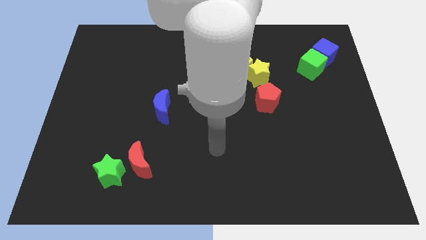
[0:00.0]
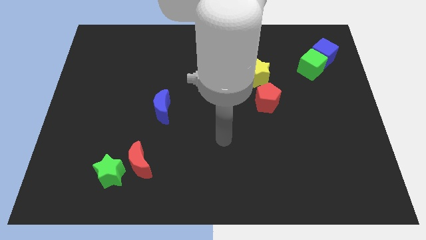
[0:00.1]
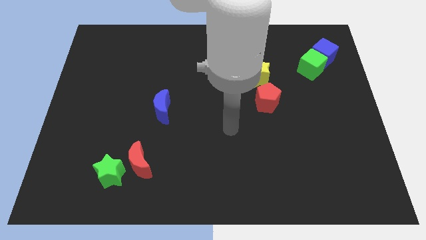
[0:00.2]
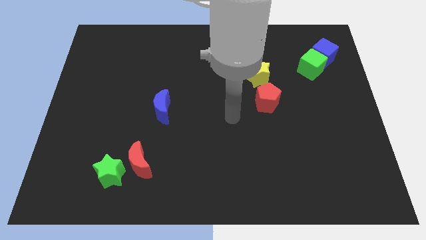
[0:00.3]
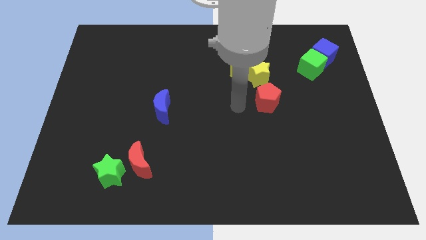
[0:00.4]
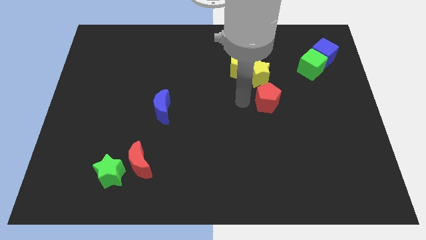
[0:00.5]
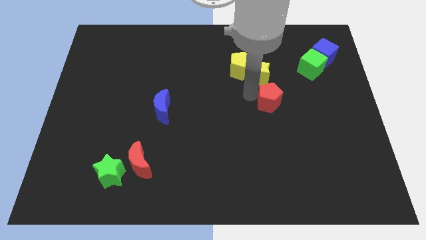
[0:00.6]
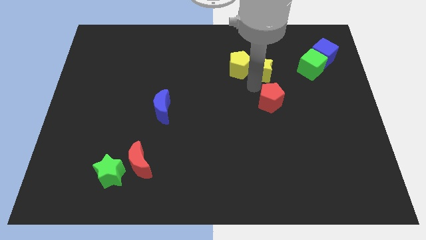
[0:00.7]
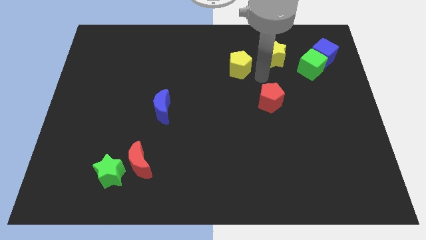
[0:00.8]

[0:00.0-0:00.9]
separate the yellow pentagon from the yellow star

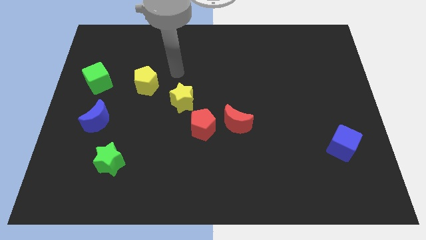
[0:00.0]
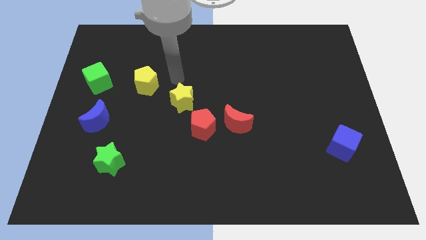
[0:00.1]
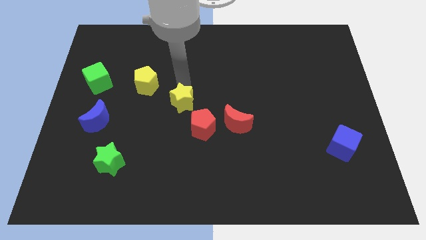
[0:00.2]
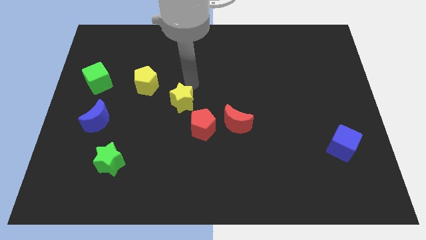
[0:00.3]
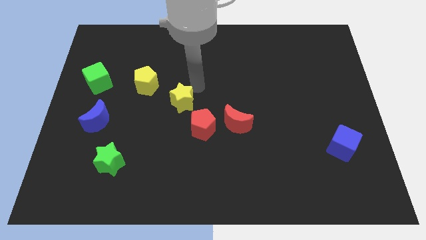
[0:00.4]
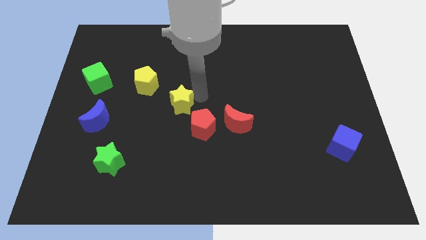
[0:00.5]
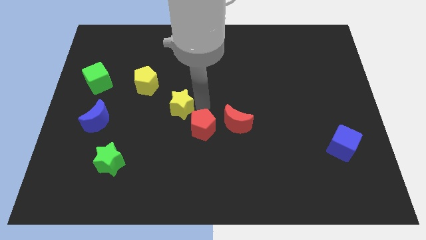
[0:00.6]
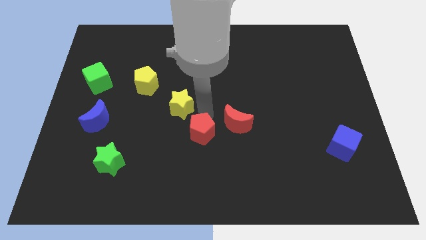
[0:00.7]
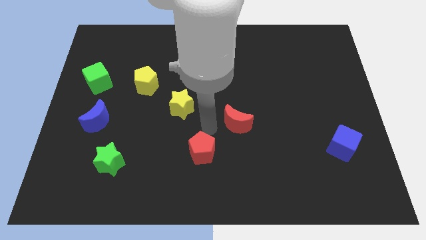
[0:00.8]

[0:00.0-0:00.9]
pull the red moon apart from the red pentagon

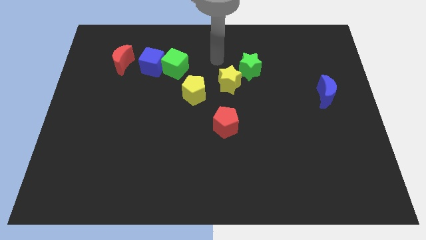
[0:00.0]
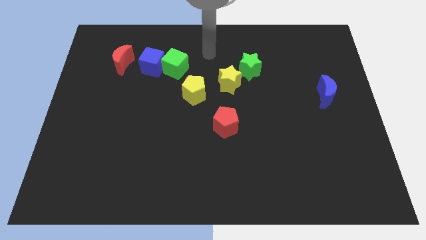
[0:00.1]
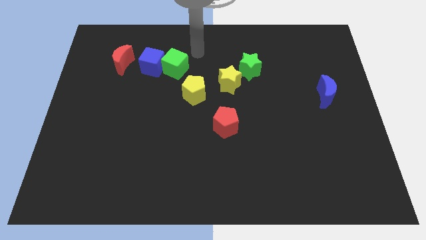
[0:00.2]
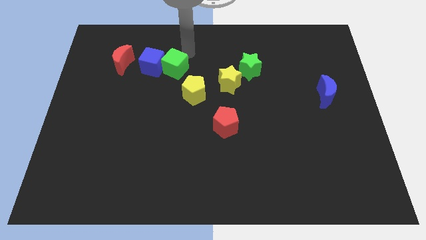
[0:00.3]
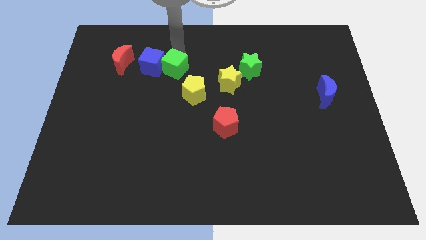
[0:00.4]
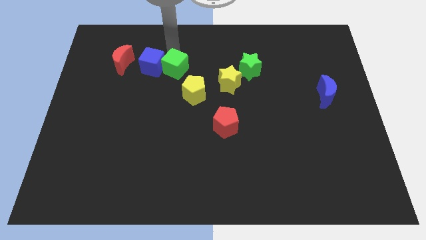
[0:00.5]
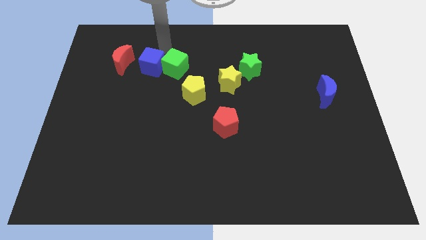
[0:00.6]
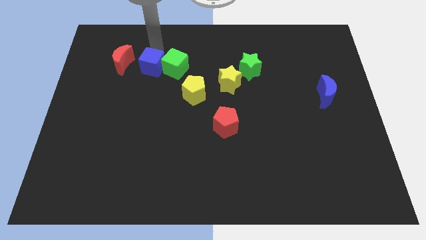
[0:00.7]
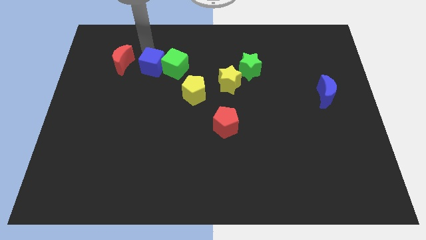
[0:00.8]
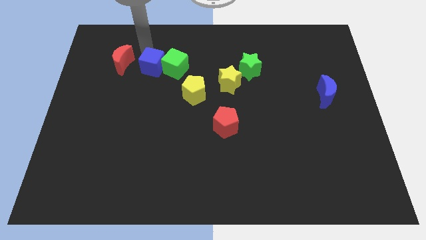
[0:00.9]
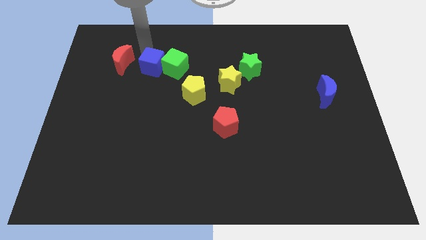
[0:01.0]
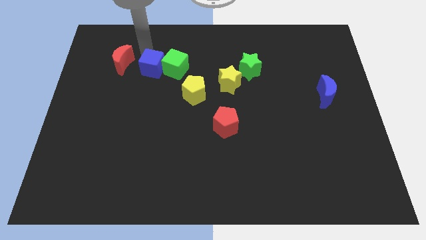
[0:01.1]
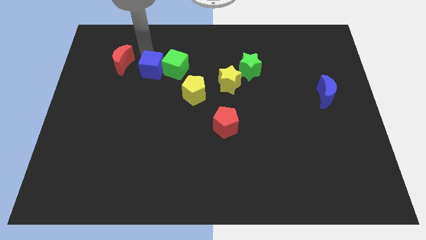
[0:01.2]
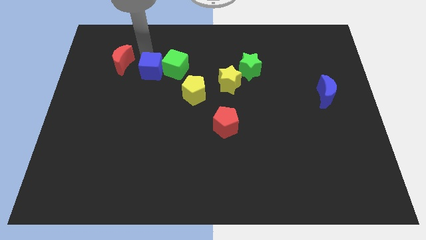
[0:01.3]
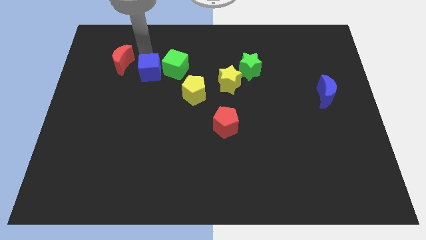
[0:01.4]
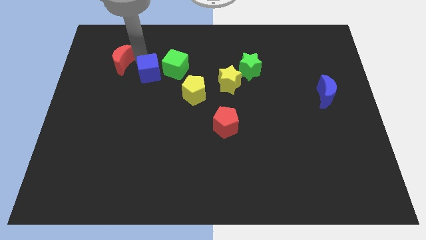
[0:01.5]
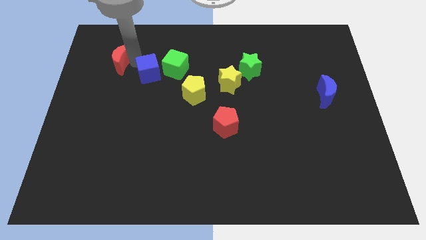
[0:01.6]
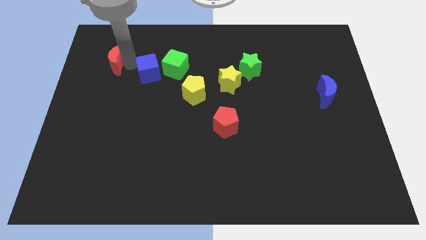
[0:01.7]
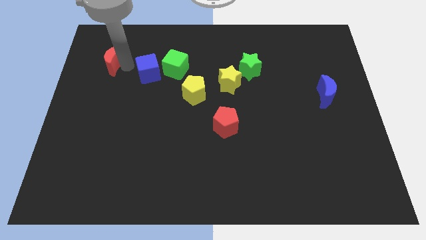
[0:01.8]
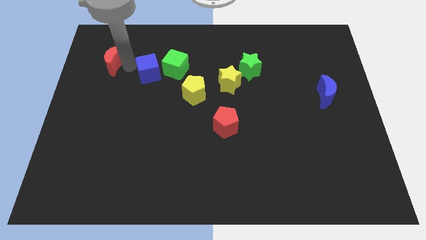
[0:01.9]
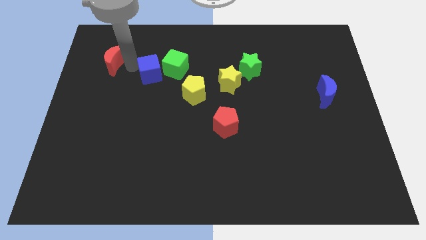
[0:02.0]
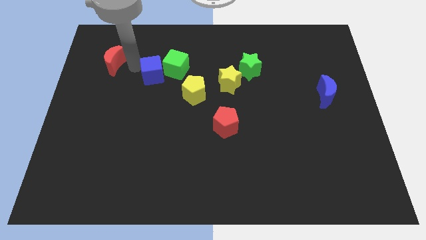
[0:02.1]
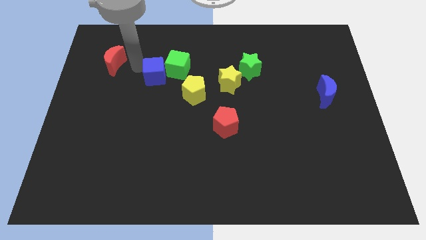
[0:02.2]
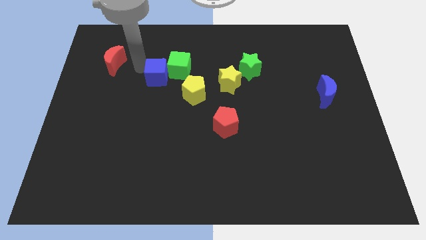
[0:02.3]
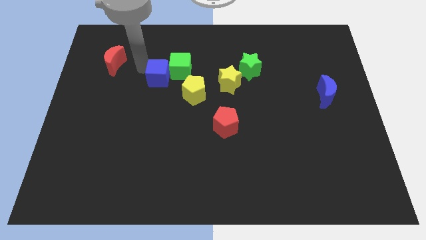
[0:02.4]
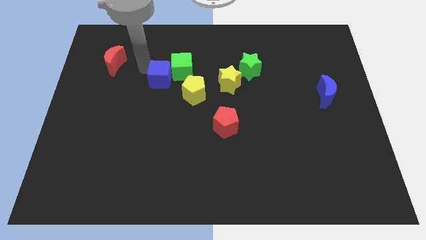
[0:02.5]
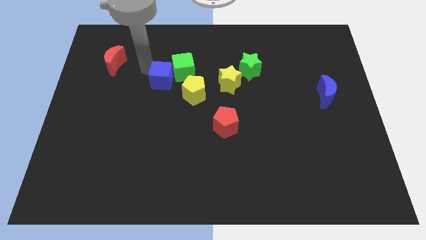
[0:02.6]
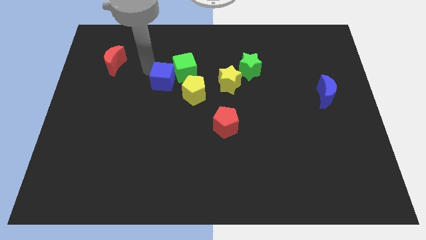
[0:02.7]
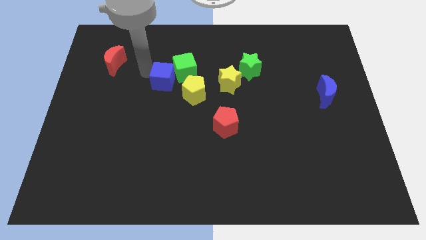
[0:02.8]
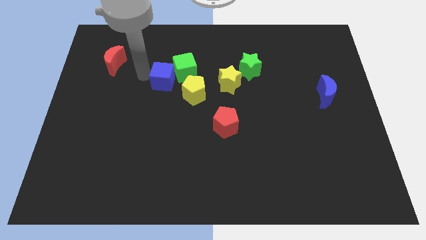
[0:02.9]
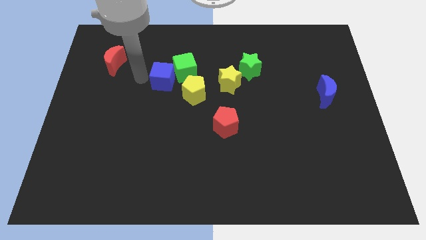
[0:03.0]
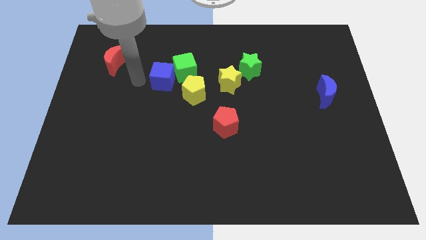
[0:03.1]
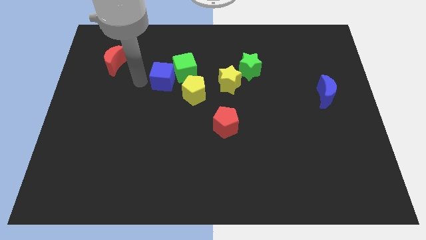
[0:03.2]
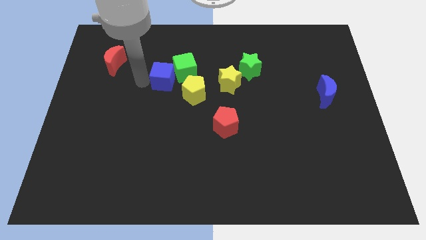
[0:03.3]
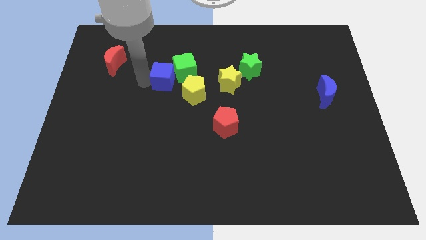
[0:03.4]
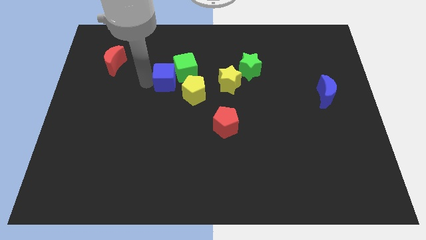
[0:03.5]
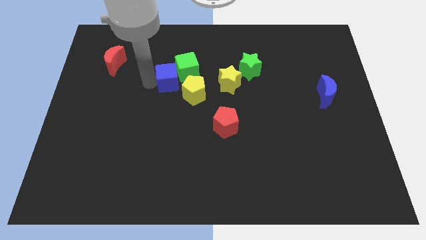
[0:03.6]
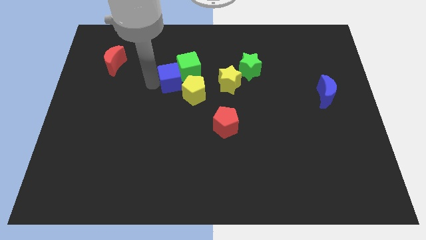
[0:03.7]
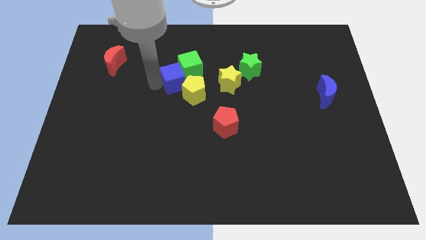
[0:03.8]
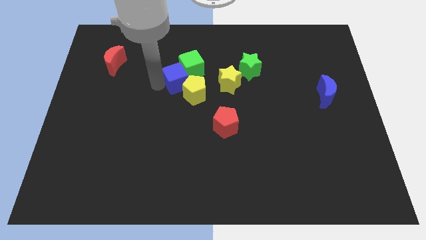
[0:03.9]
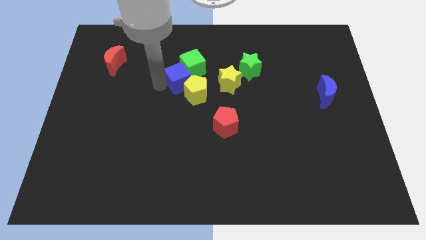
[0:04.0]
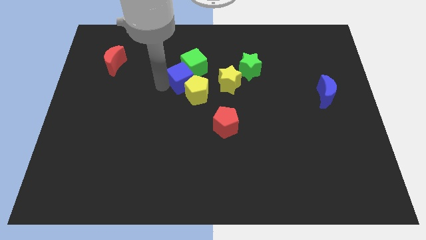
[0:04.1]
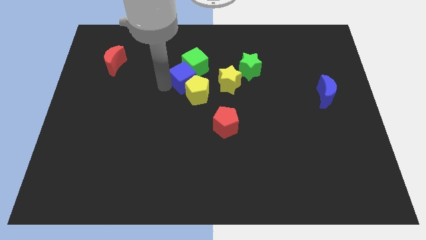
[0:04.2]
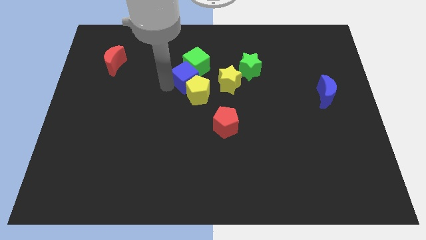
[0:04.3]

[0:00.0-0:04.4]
separate the blue cube from the green cube and red moon

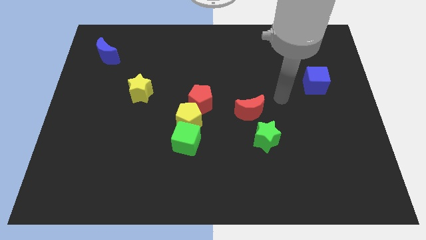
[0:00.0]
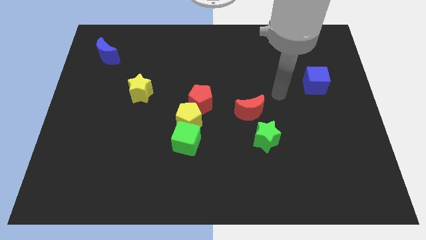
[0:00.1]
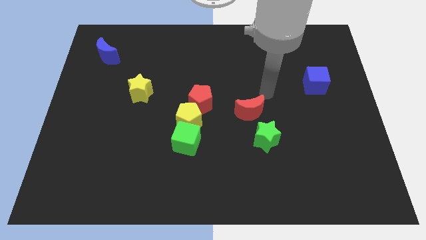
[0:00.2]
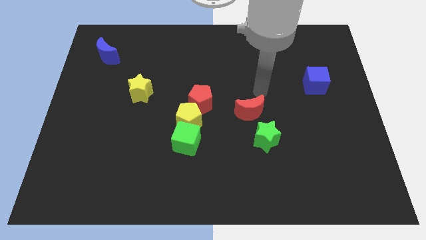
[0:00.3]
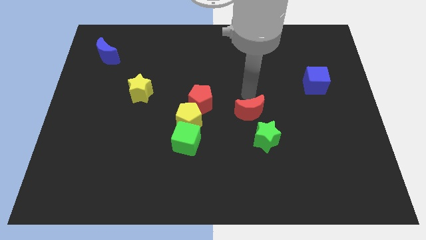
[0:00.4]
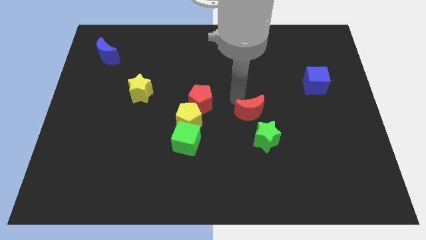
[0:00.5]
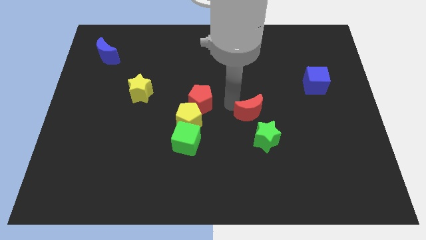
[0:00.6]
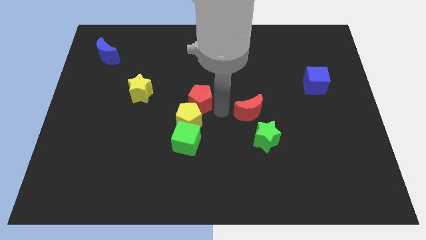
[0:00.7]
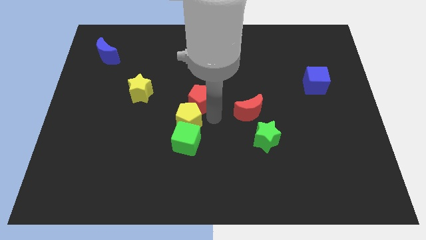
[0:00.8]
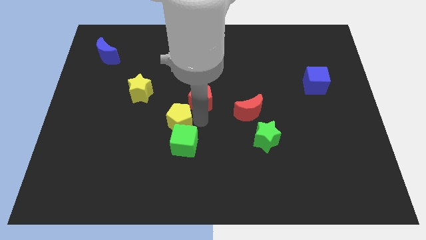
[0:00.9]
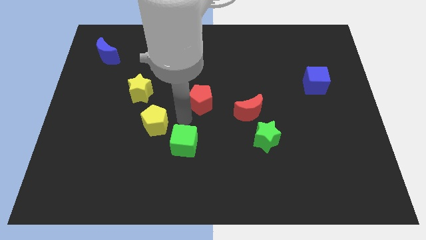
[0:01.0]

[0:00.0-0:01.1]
separate the red pentagon from the yellow pentagon

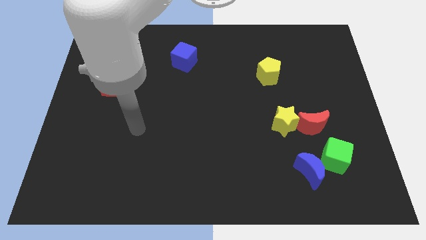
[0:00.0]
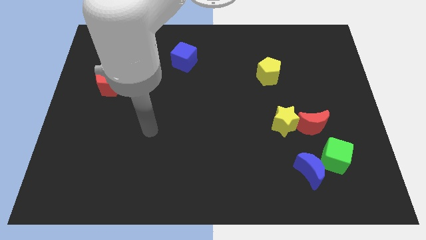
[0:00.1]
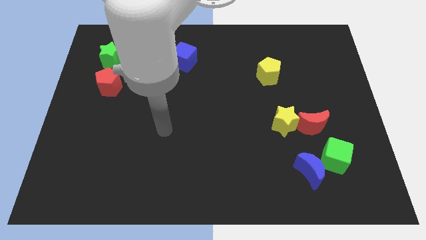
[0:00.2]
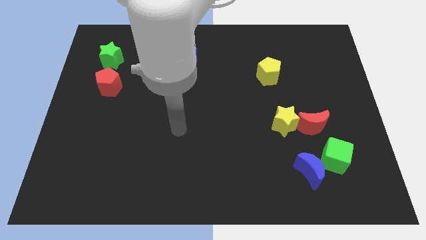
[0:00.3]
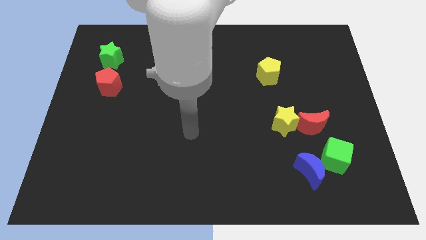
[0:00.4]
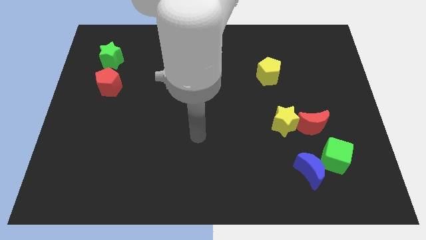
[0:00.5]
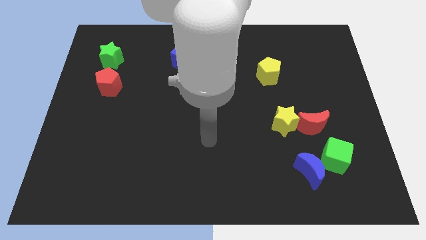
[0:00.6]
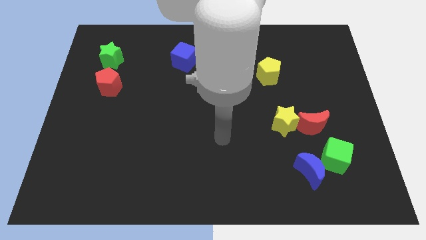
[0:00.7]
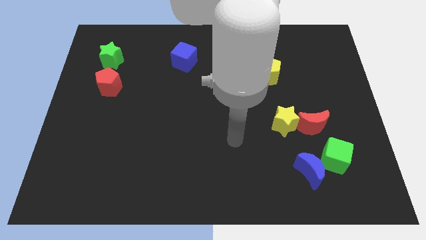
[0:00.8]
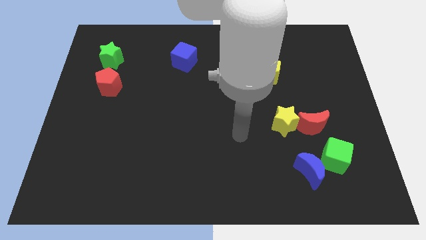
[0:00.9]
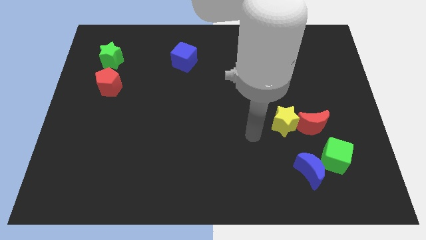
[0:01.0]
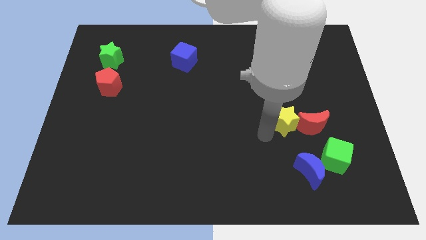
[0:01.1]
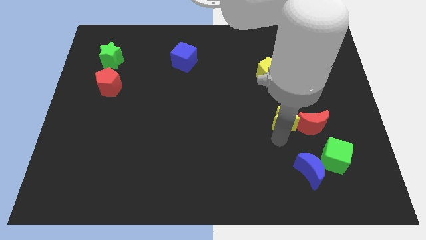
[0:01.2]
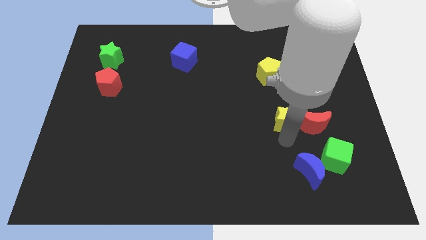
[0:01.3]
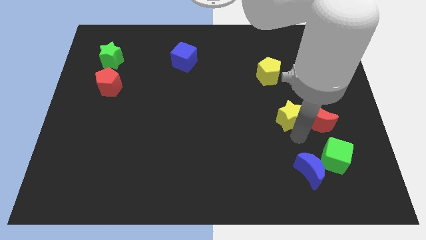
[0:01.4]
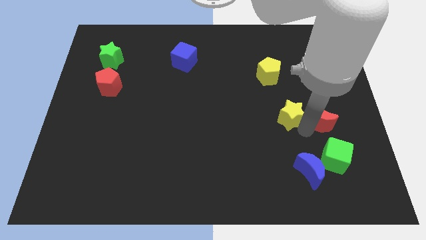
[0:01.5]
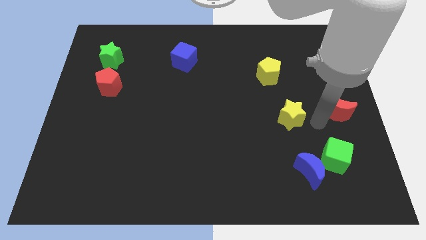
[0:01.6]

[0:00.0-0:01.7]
separate the yellow star from the red moon

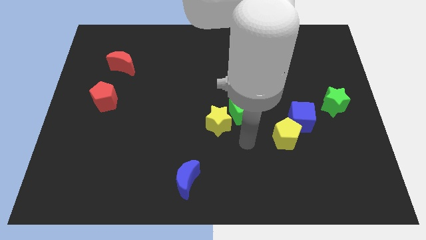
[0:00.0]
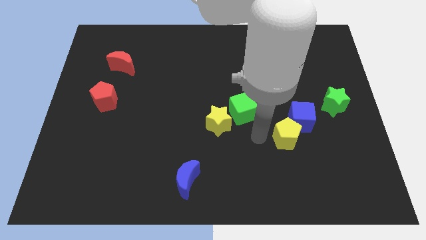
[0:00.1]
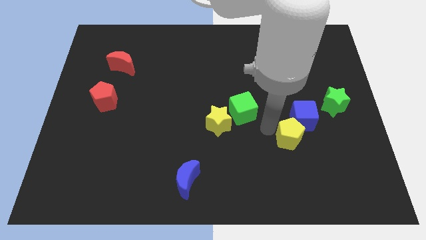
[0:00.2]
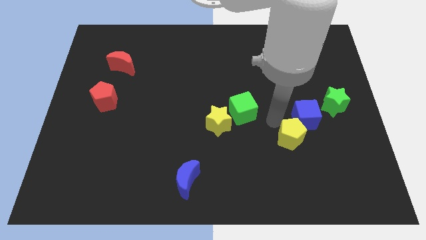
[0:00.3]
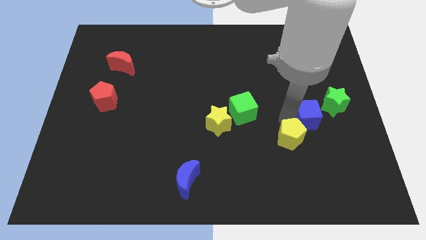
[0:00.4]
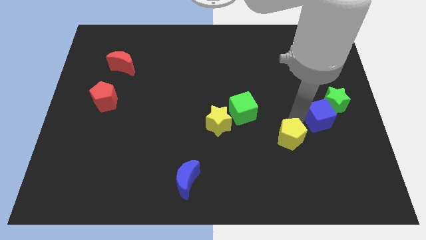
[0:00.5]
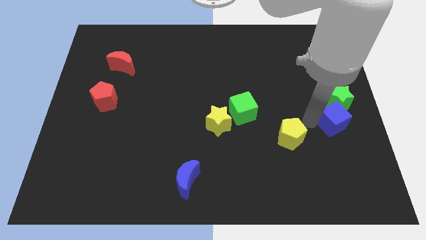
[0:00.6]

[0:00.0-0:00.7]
separate the yellow pentagon from the blue cube
